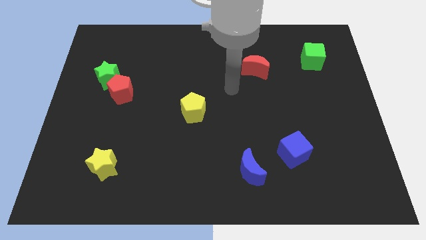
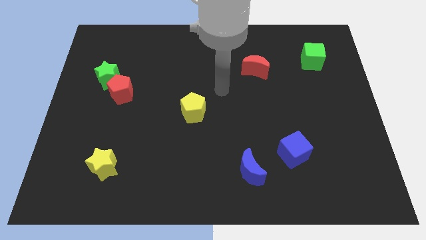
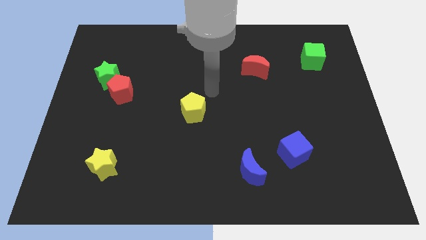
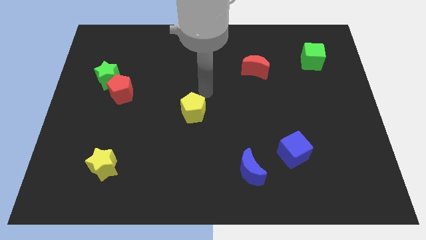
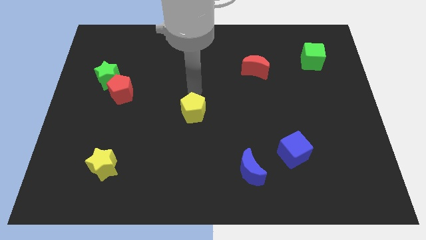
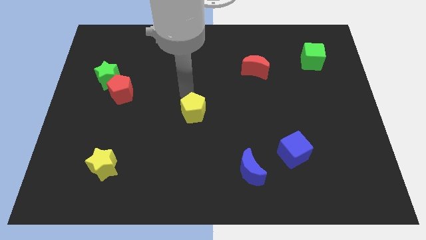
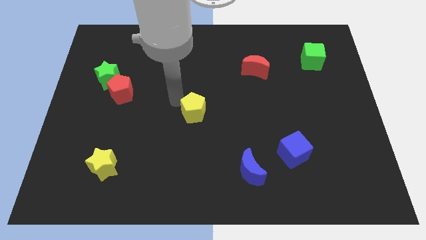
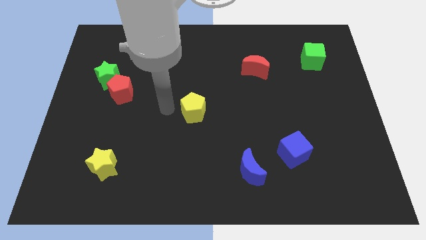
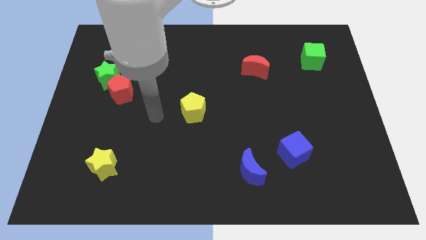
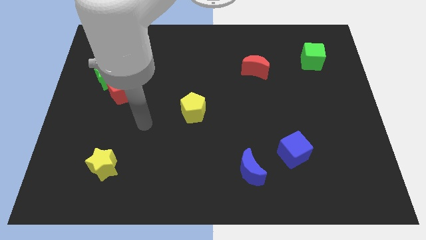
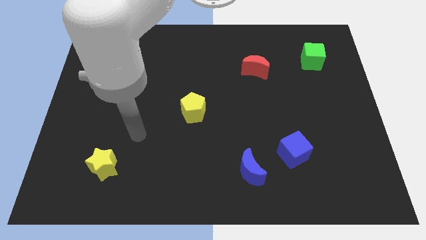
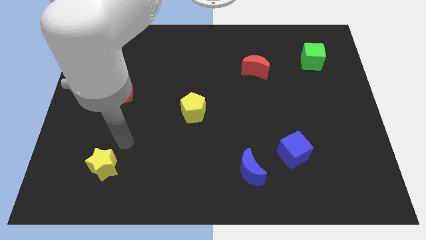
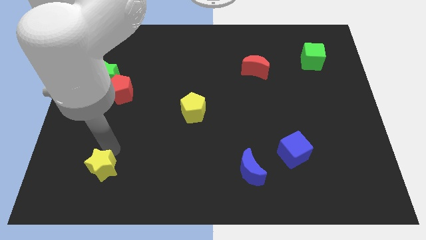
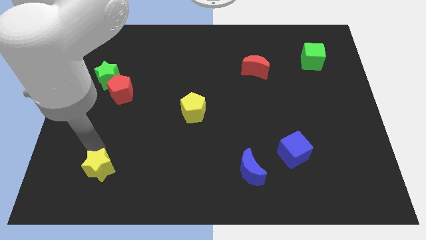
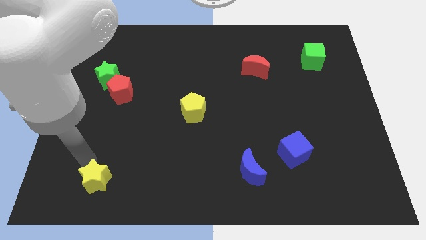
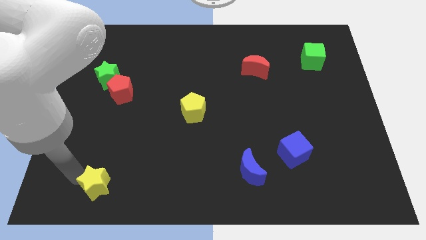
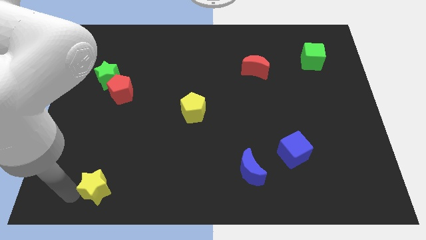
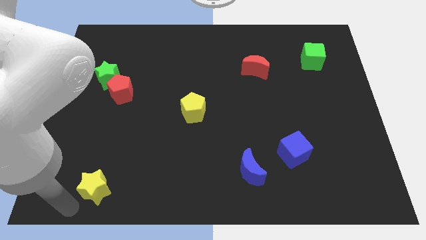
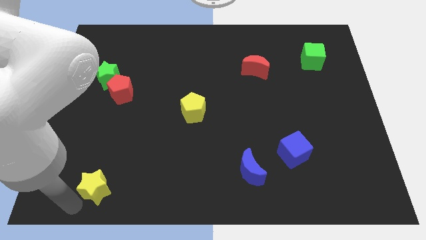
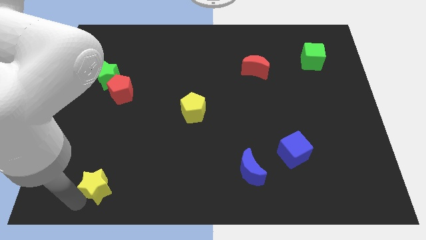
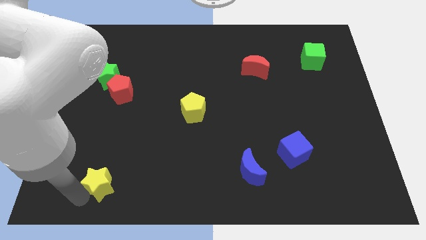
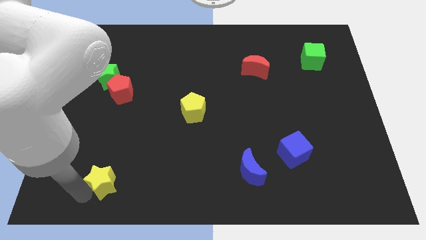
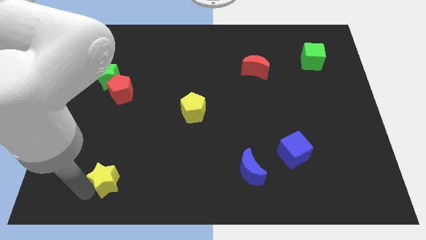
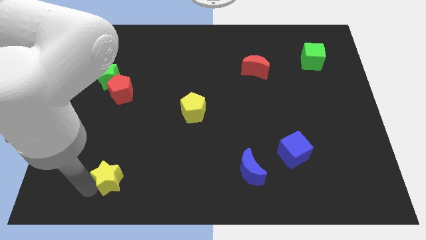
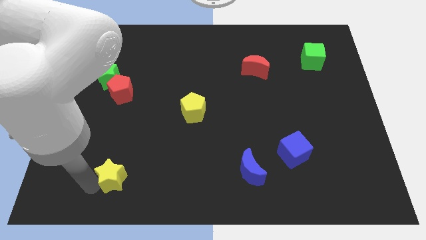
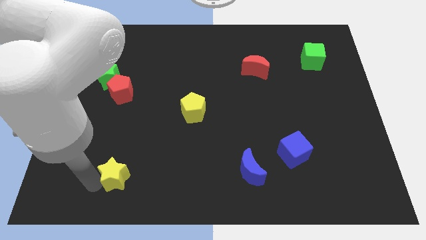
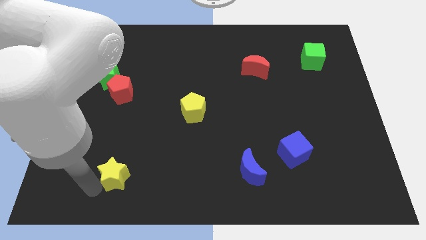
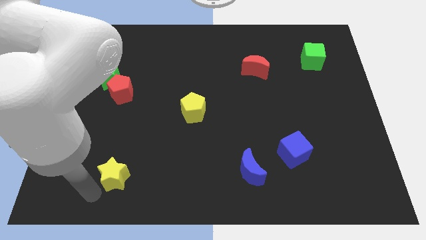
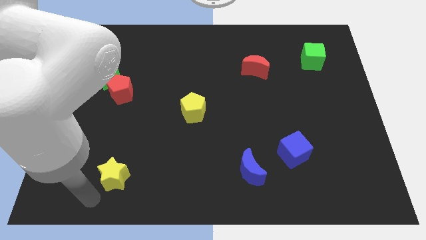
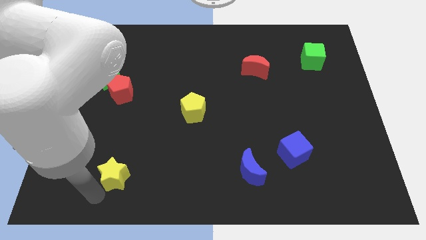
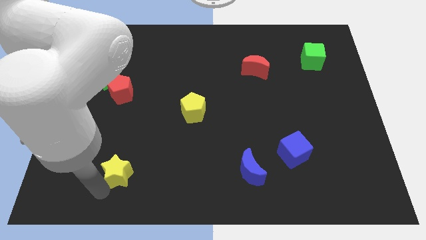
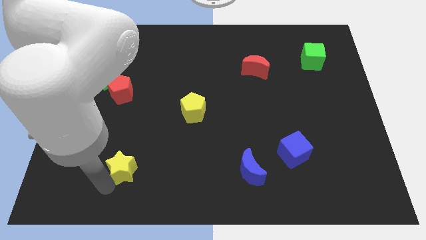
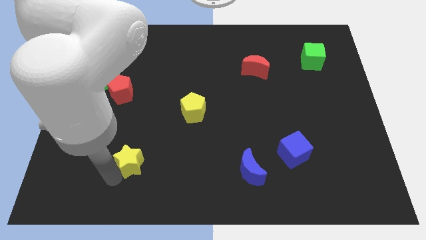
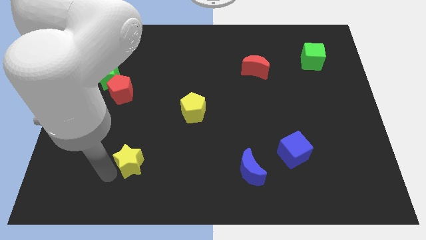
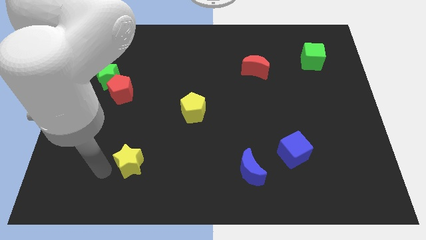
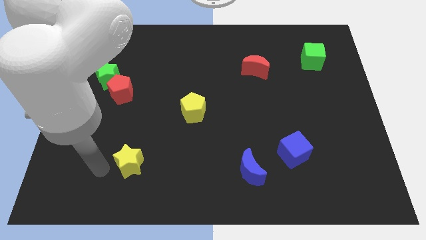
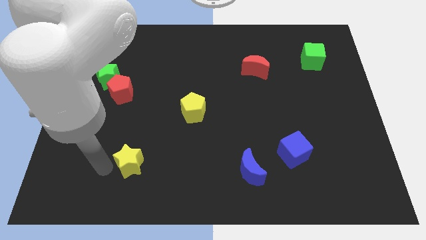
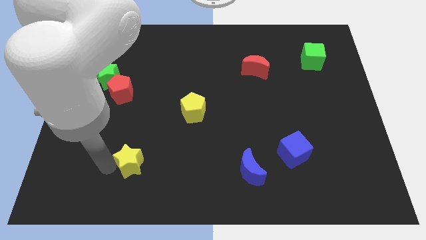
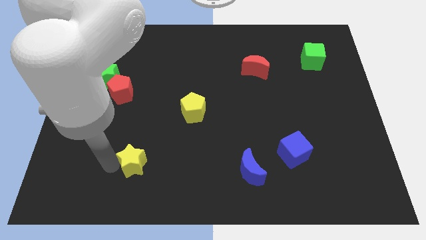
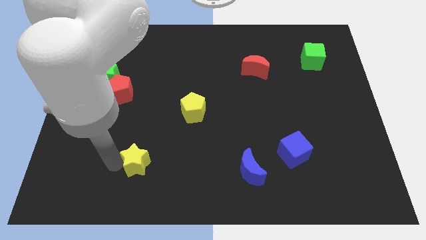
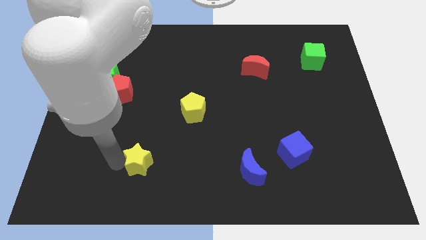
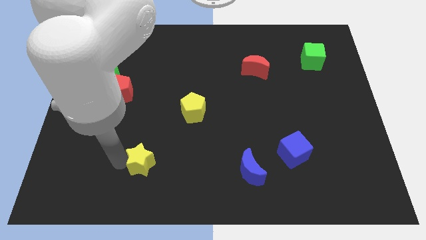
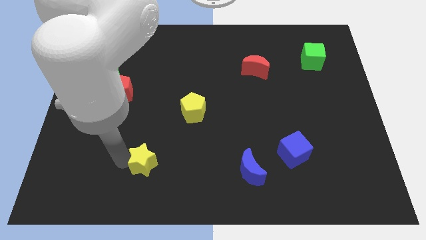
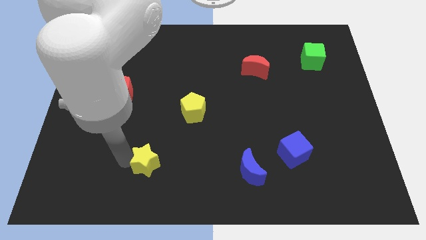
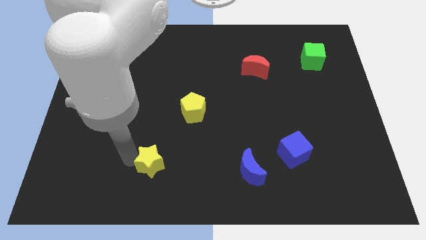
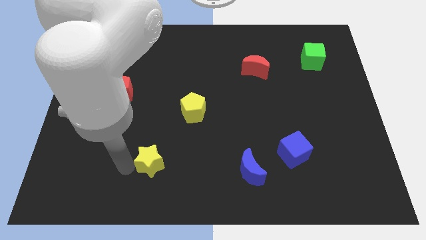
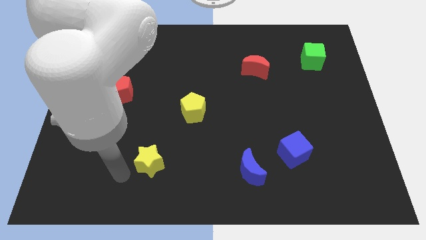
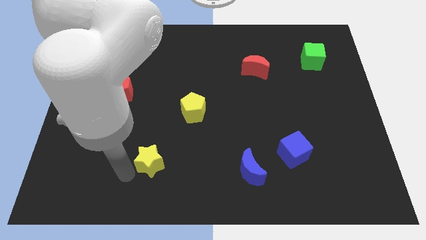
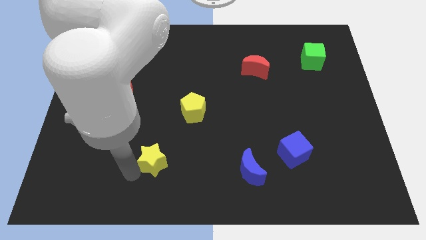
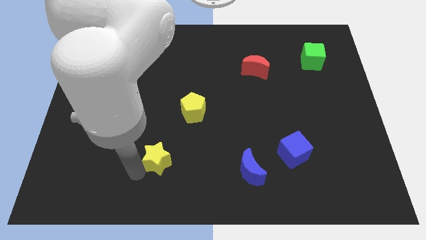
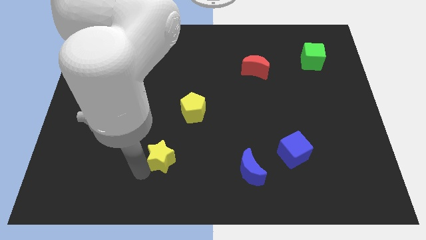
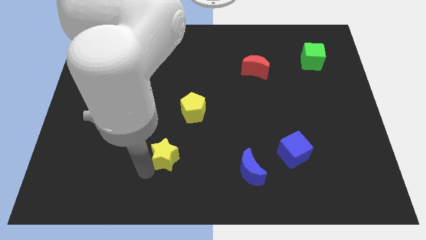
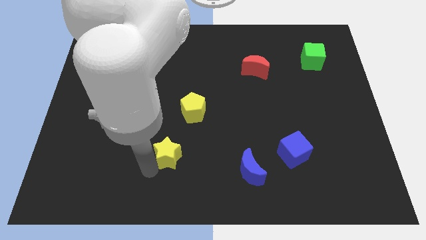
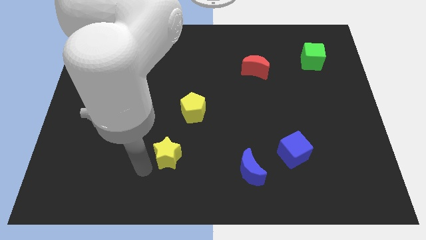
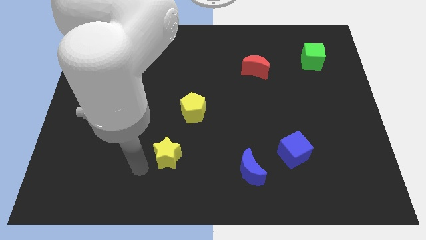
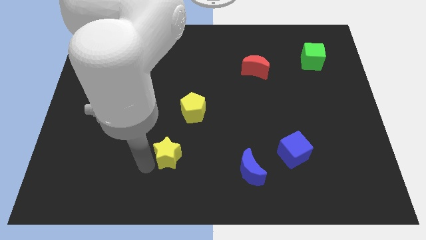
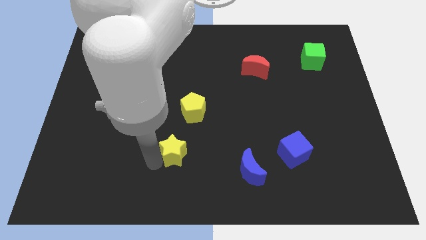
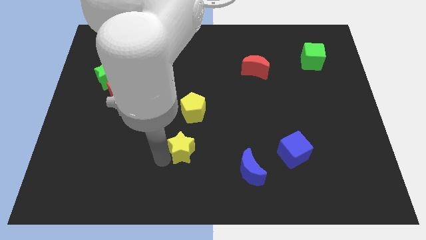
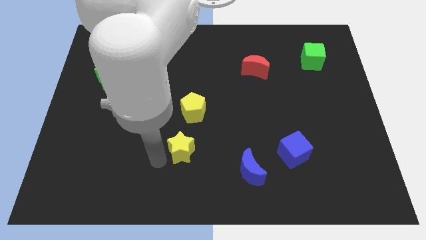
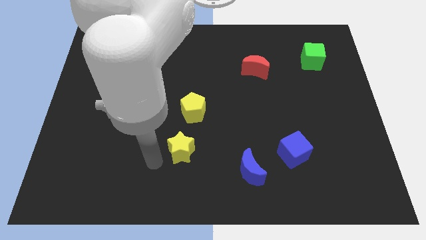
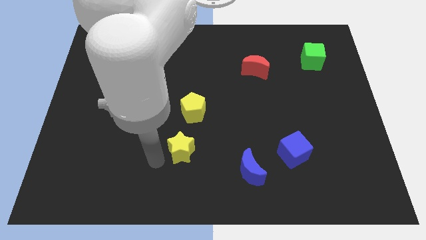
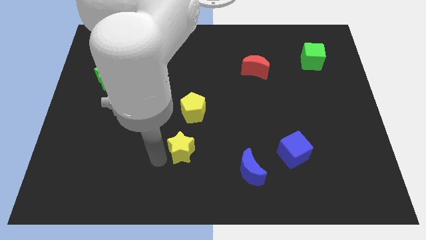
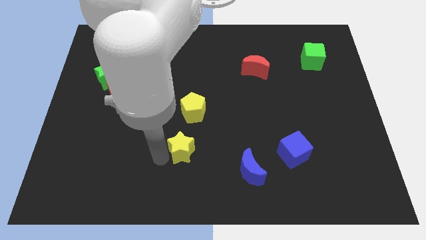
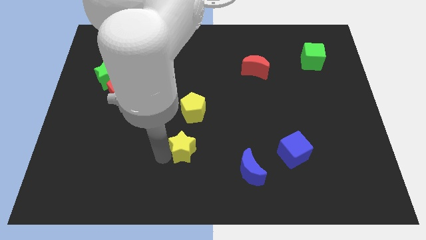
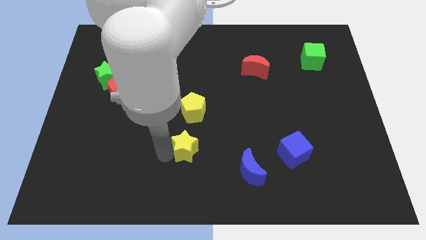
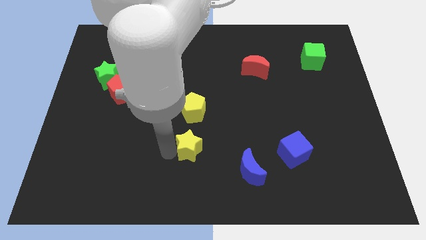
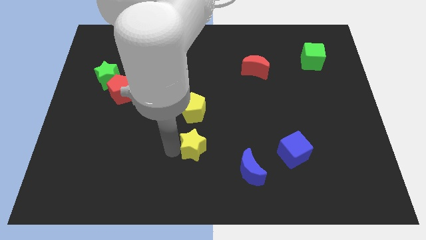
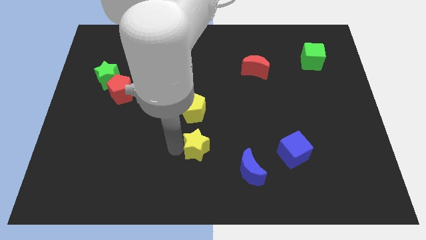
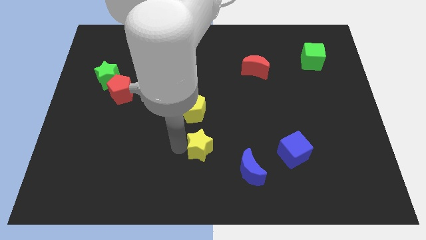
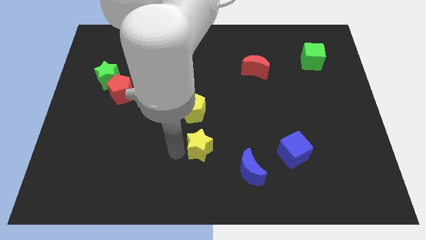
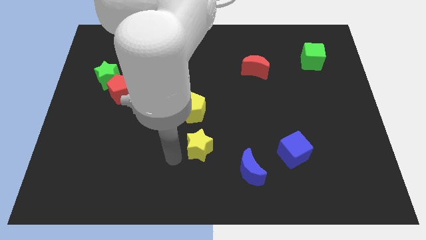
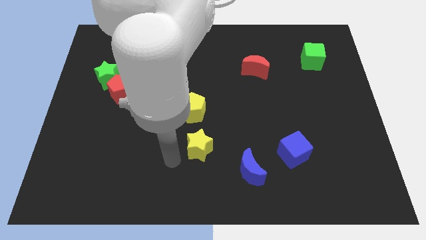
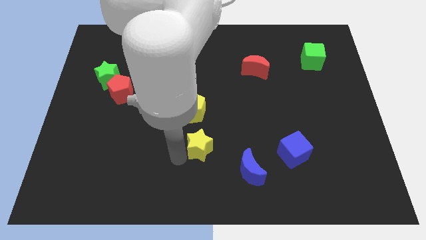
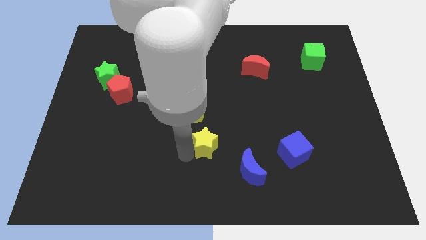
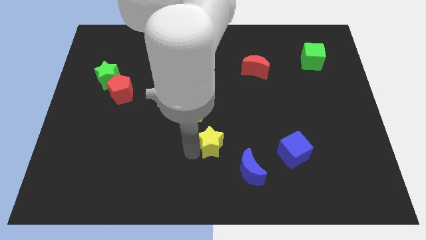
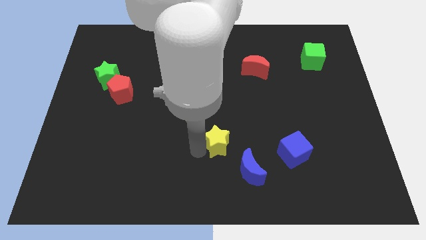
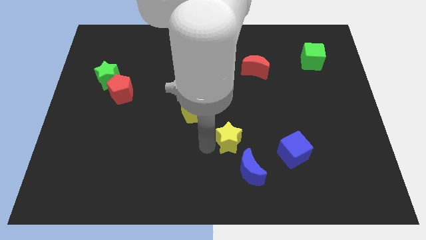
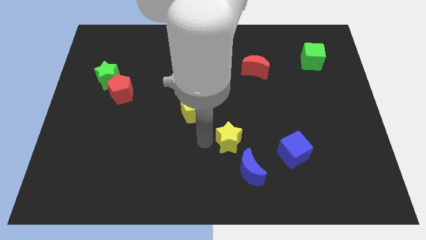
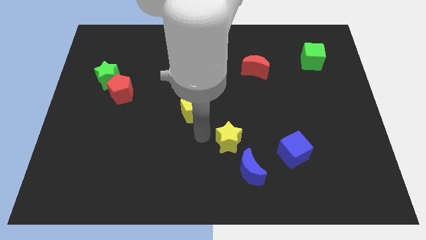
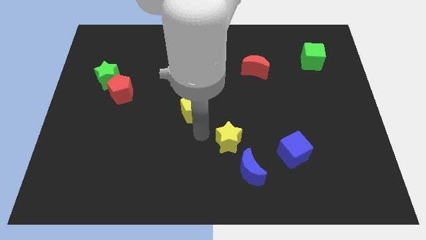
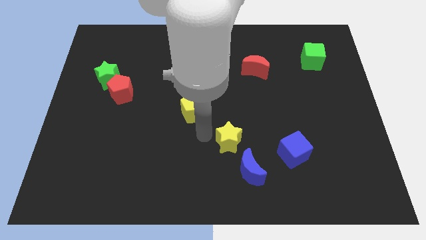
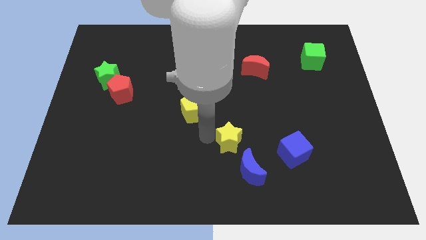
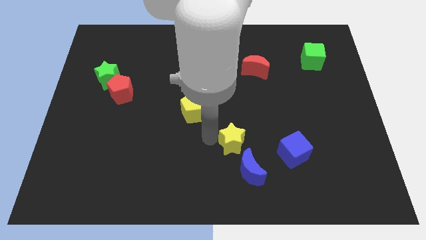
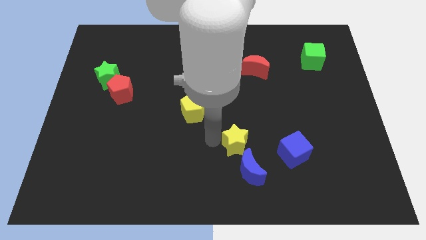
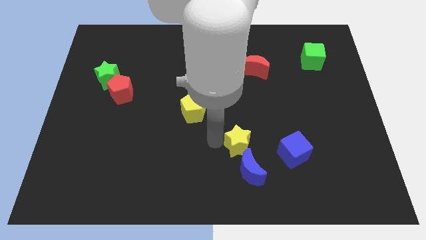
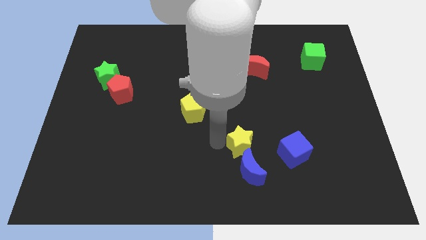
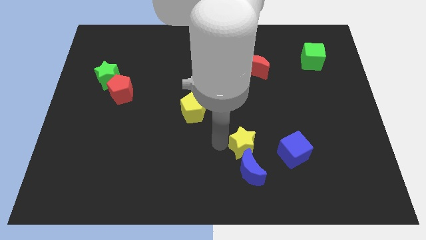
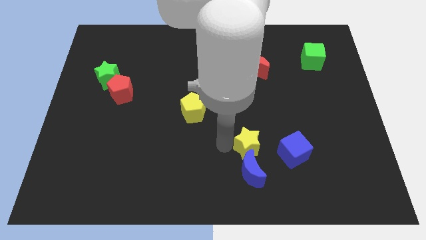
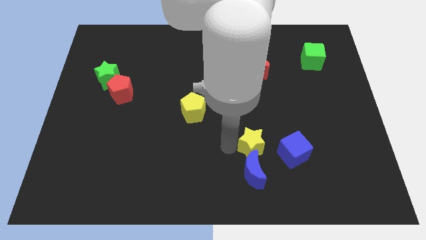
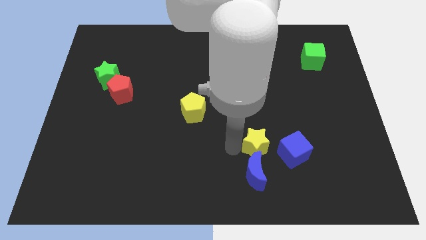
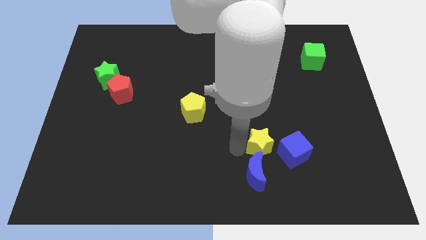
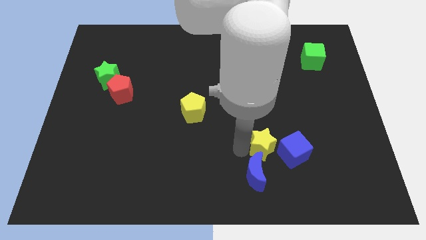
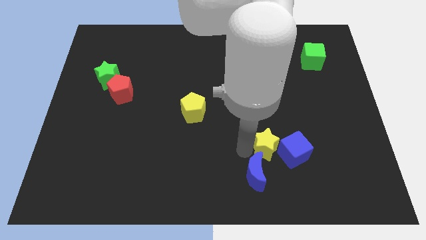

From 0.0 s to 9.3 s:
put the yellow star close to the blue cube
